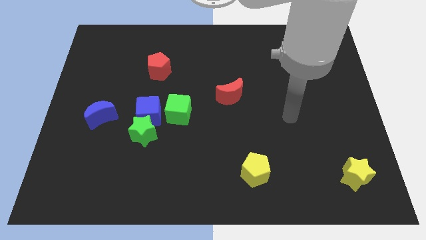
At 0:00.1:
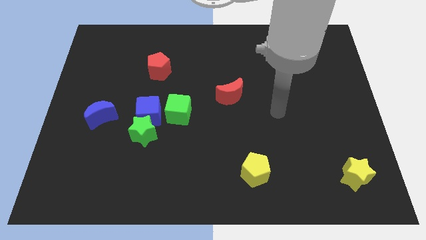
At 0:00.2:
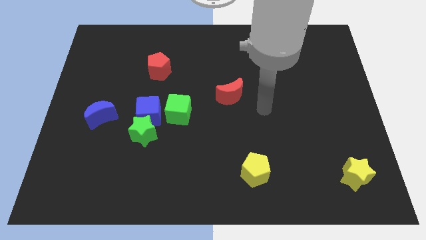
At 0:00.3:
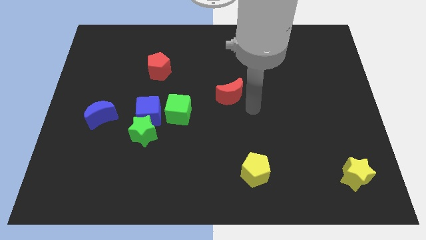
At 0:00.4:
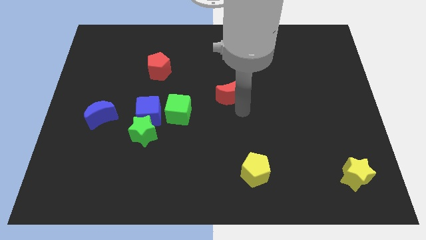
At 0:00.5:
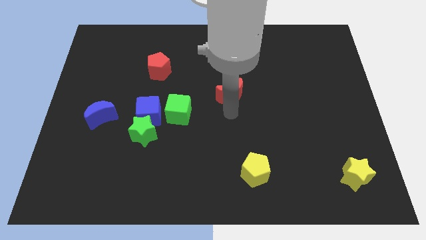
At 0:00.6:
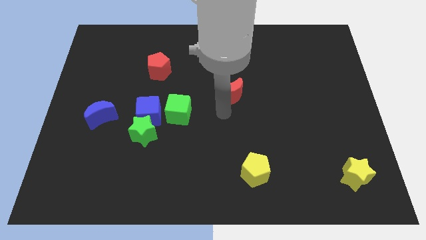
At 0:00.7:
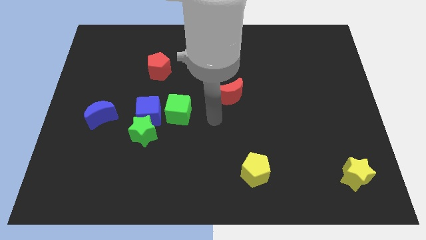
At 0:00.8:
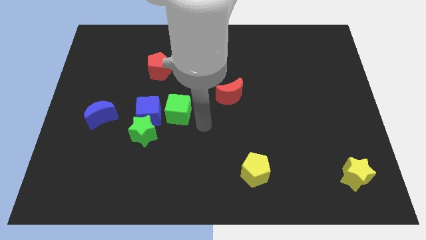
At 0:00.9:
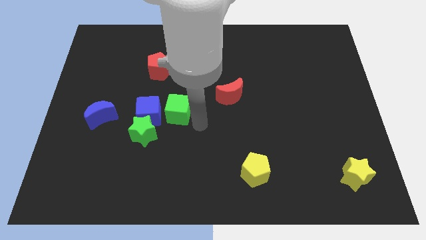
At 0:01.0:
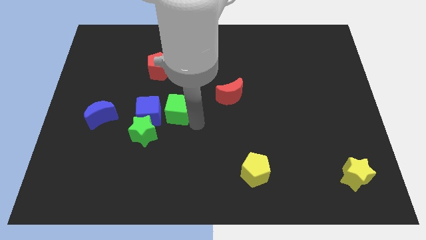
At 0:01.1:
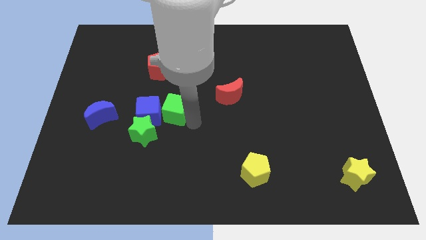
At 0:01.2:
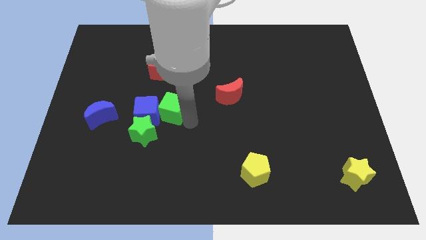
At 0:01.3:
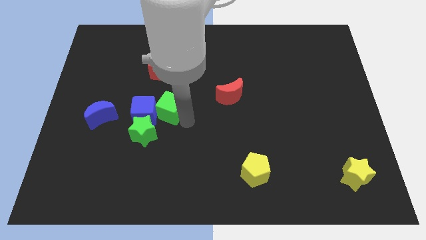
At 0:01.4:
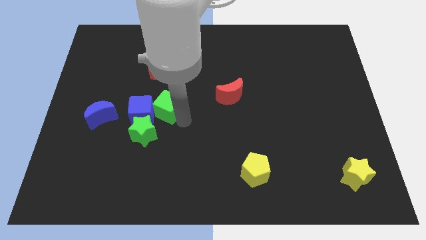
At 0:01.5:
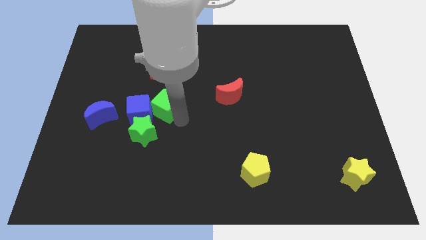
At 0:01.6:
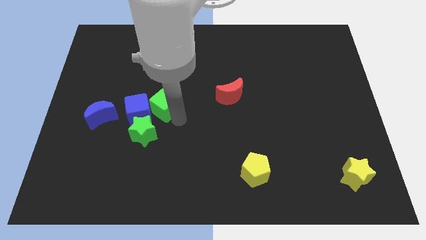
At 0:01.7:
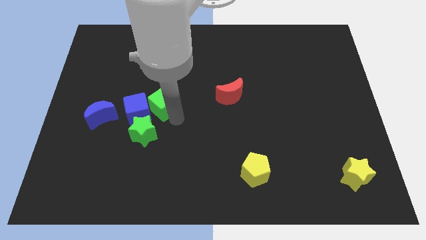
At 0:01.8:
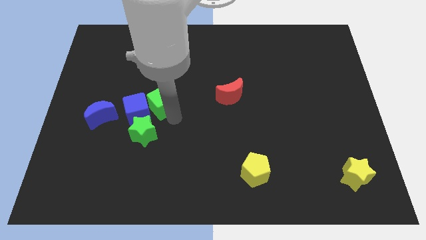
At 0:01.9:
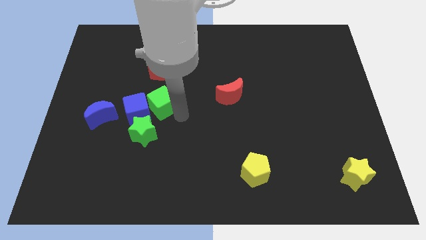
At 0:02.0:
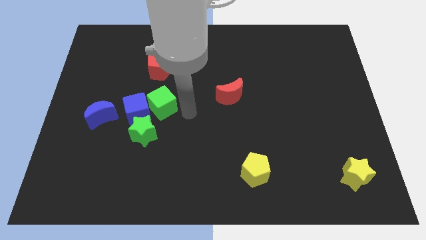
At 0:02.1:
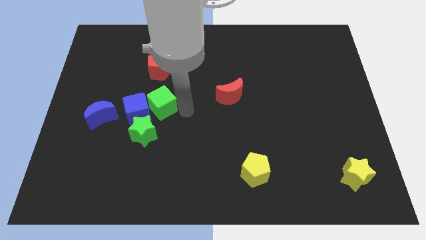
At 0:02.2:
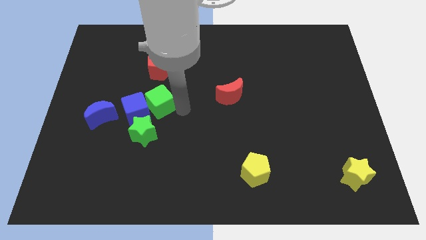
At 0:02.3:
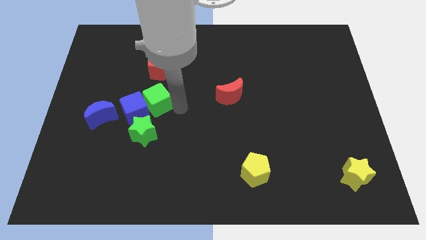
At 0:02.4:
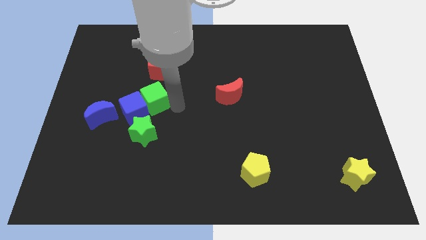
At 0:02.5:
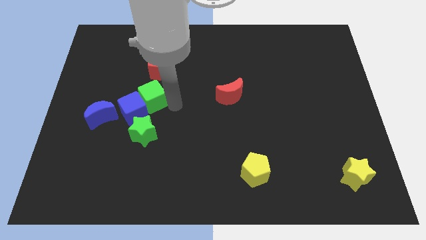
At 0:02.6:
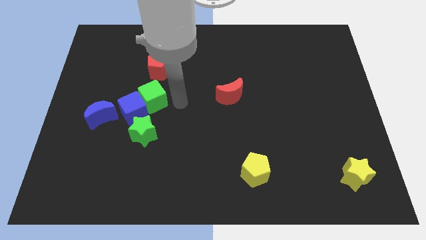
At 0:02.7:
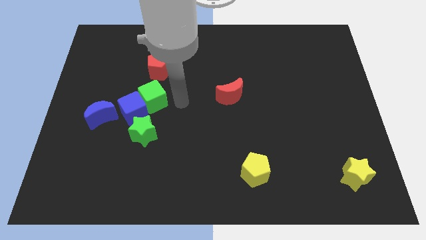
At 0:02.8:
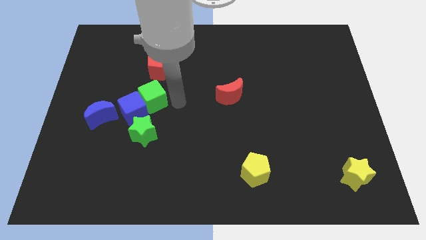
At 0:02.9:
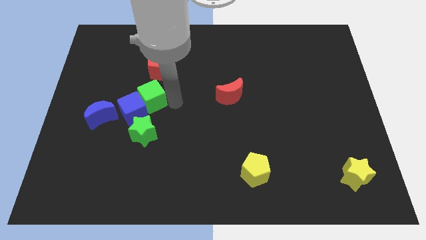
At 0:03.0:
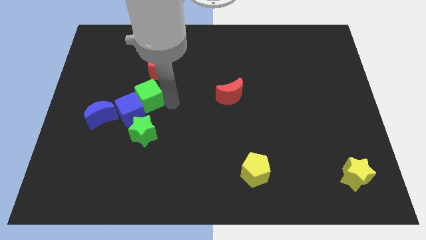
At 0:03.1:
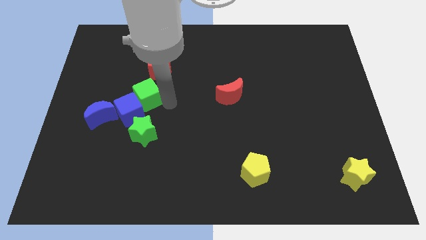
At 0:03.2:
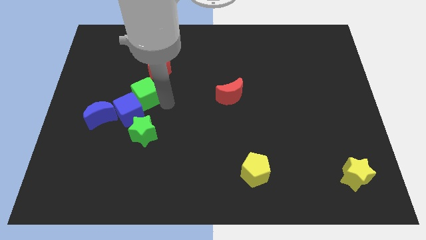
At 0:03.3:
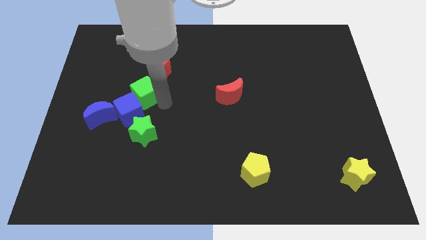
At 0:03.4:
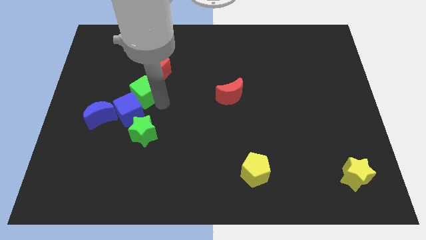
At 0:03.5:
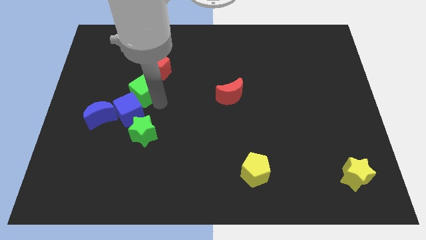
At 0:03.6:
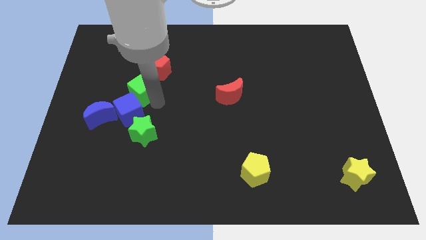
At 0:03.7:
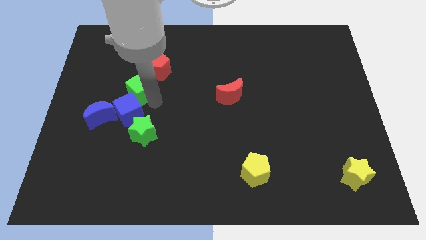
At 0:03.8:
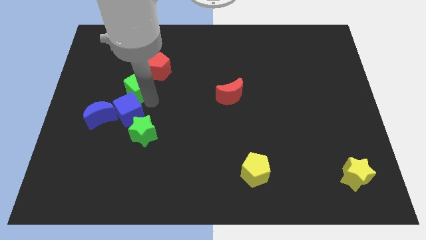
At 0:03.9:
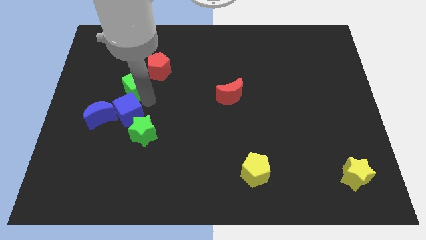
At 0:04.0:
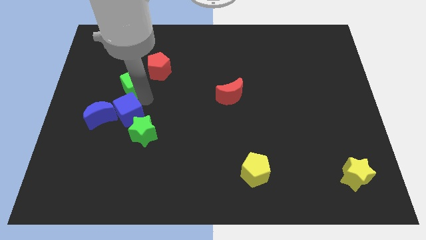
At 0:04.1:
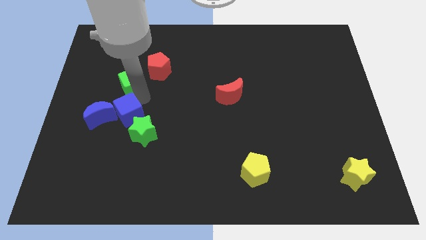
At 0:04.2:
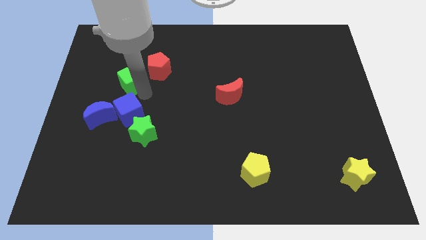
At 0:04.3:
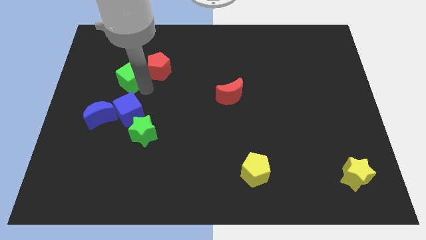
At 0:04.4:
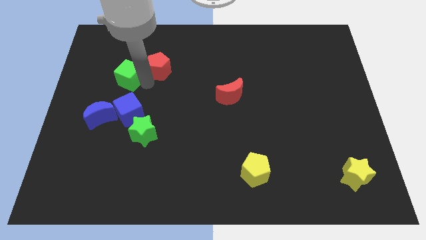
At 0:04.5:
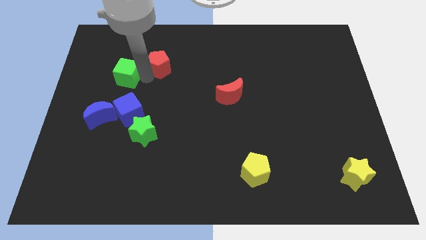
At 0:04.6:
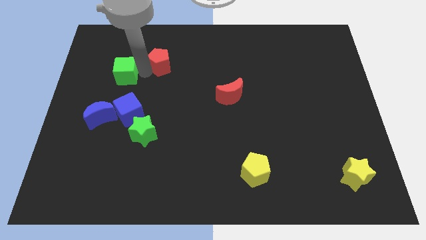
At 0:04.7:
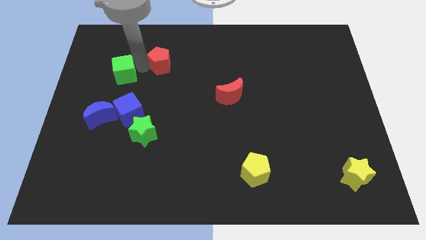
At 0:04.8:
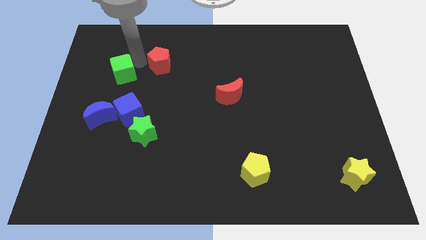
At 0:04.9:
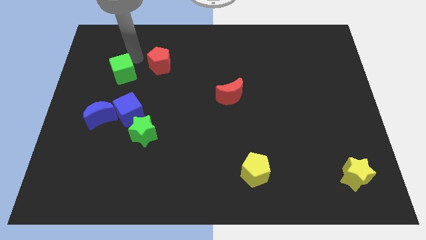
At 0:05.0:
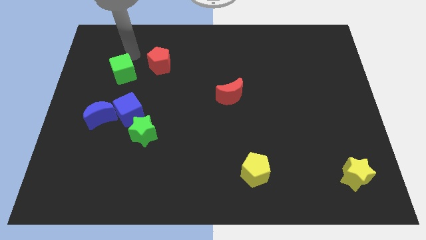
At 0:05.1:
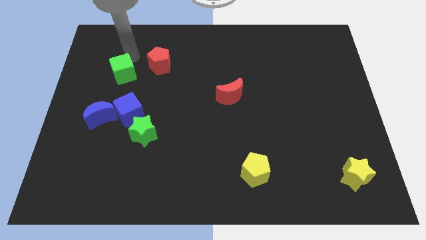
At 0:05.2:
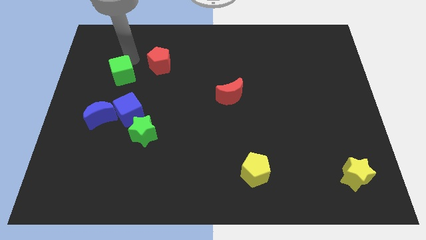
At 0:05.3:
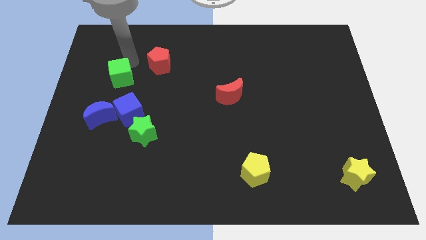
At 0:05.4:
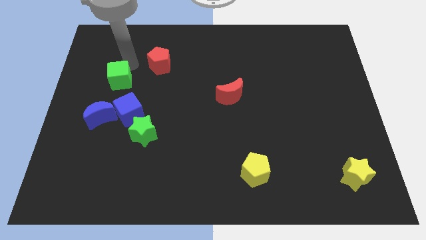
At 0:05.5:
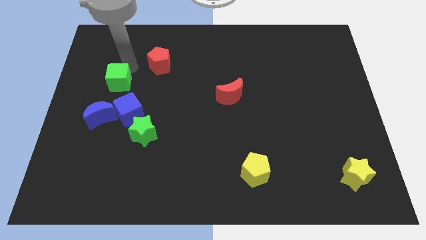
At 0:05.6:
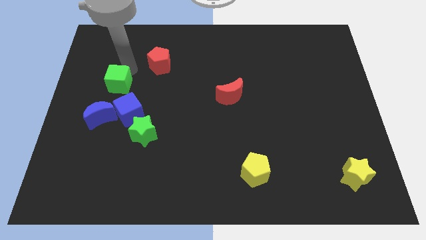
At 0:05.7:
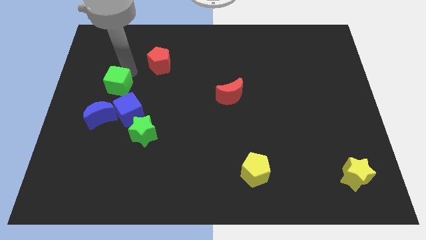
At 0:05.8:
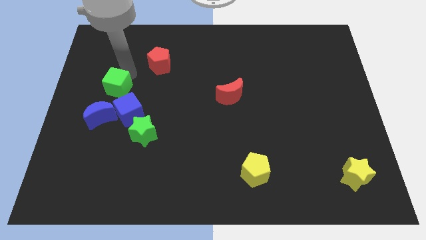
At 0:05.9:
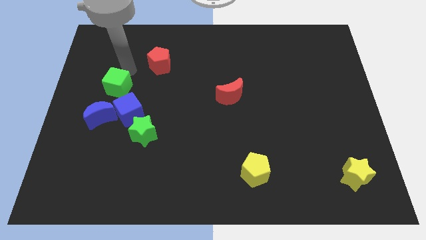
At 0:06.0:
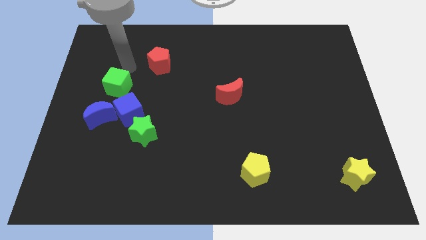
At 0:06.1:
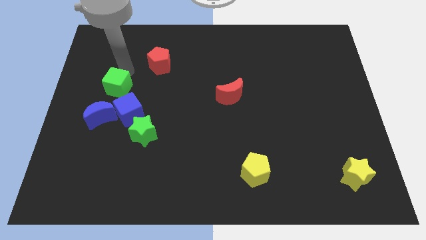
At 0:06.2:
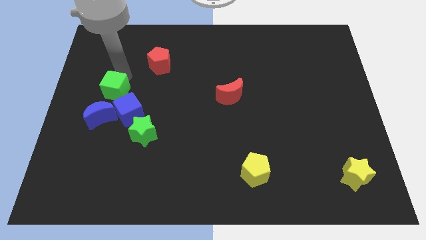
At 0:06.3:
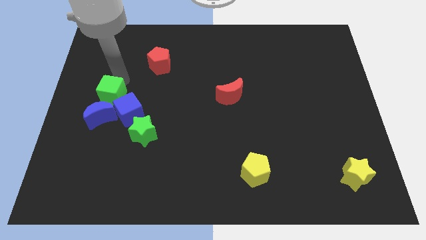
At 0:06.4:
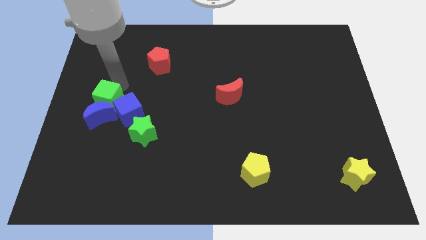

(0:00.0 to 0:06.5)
push the green cube to the center left
